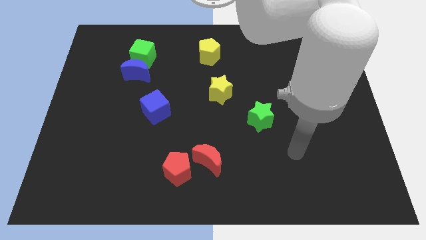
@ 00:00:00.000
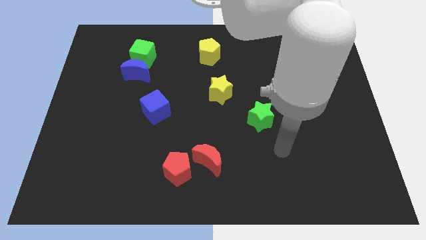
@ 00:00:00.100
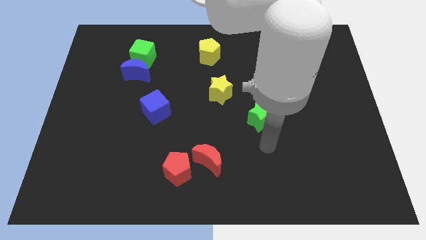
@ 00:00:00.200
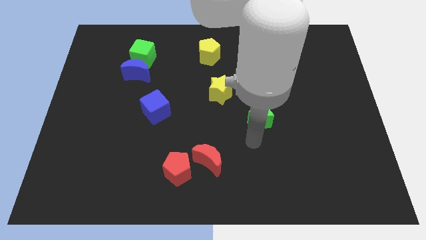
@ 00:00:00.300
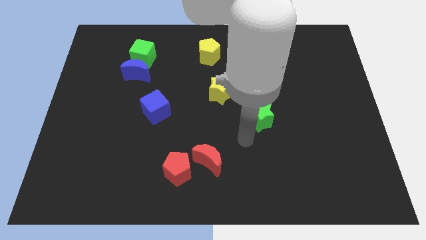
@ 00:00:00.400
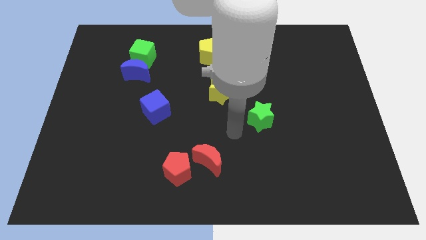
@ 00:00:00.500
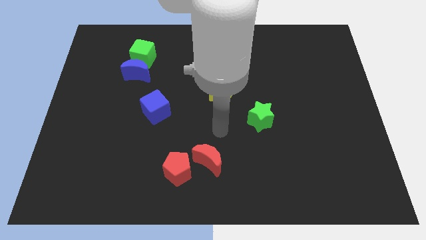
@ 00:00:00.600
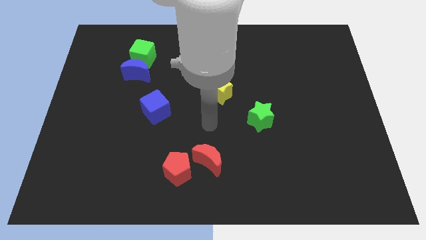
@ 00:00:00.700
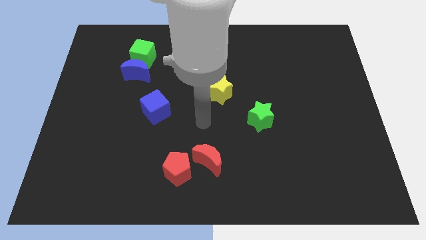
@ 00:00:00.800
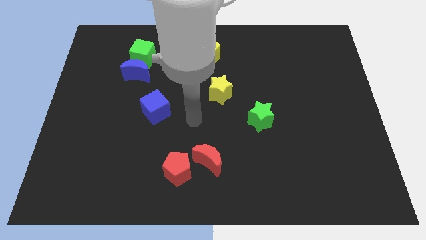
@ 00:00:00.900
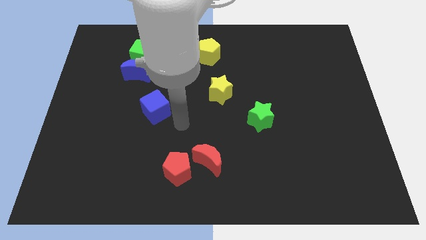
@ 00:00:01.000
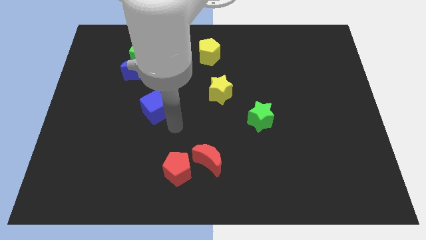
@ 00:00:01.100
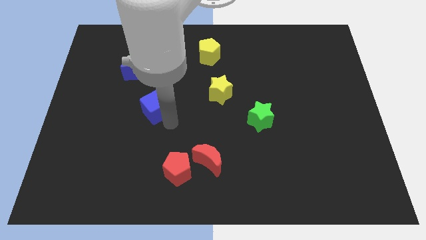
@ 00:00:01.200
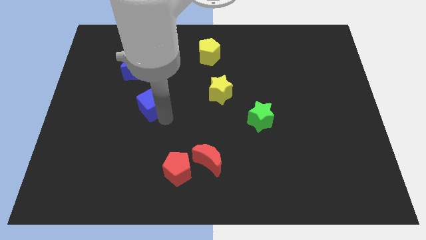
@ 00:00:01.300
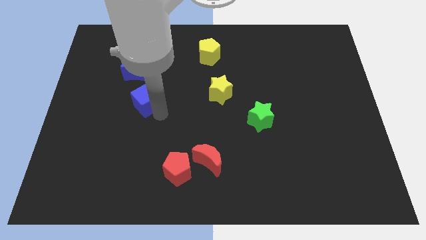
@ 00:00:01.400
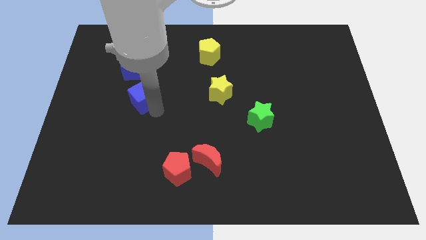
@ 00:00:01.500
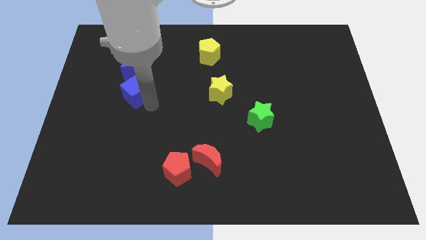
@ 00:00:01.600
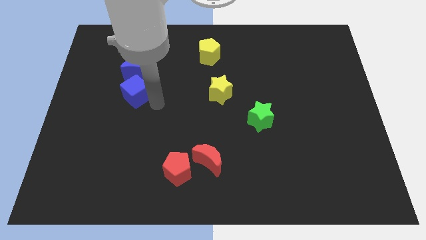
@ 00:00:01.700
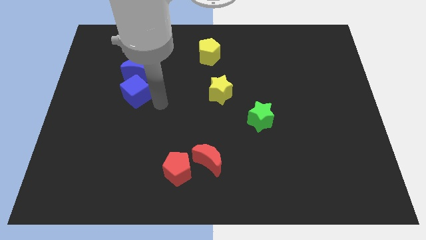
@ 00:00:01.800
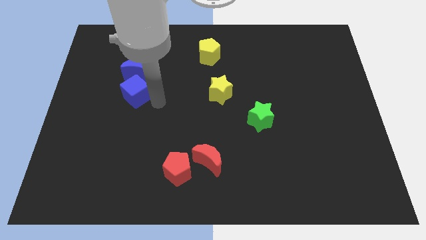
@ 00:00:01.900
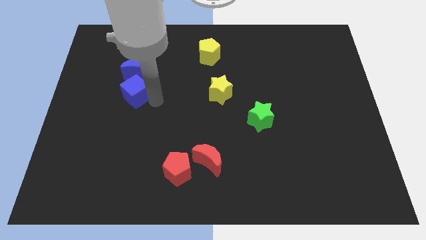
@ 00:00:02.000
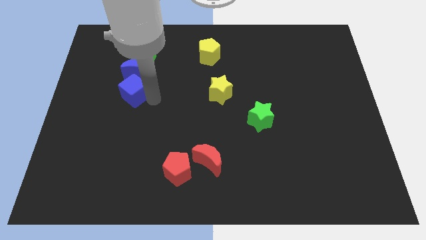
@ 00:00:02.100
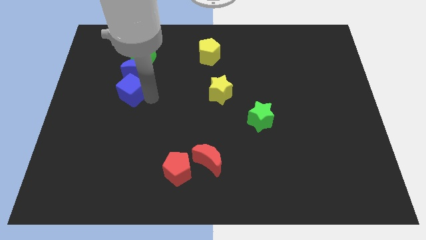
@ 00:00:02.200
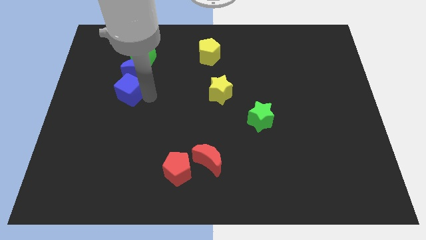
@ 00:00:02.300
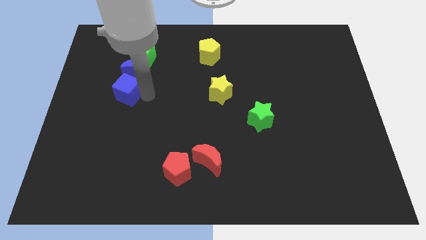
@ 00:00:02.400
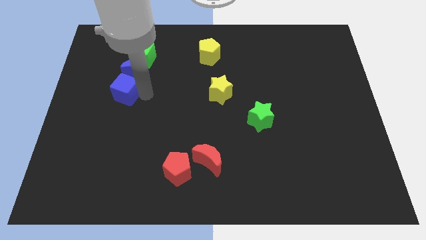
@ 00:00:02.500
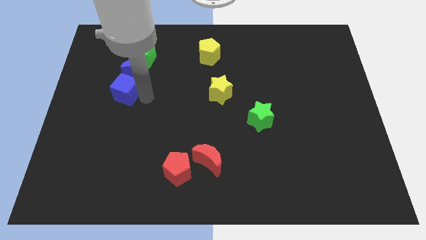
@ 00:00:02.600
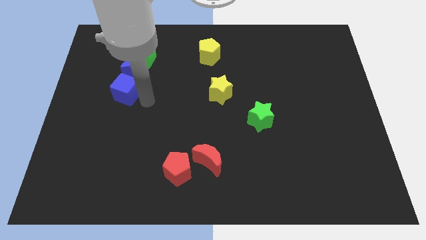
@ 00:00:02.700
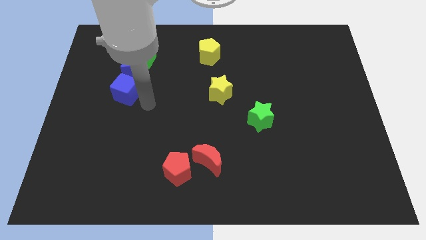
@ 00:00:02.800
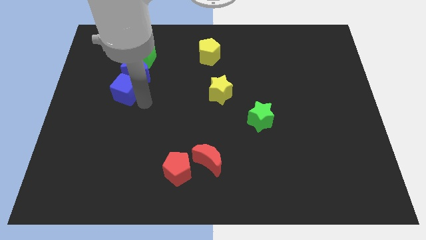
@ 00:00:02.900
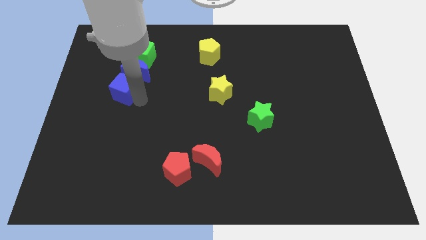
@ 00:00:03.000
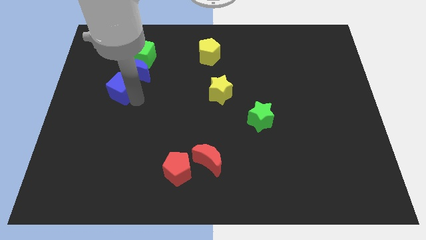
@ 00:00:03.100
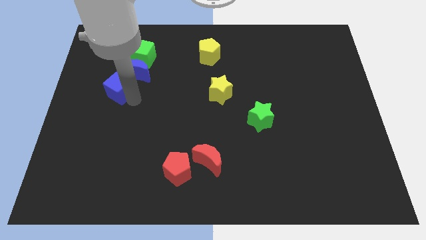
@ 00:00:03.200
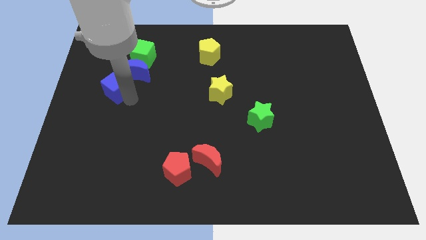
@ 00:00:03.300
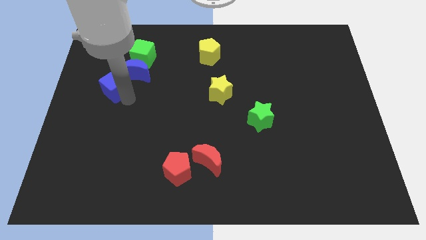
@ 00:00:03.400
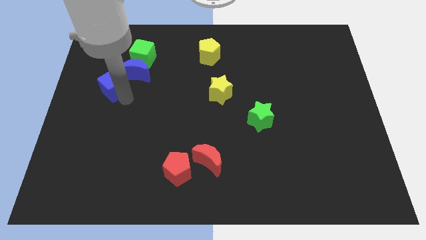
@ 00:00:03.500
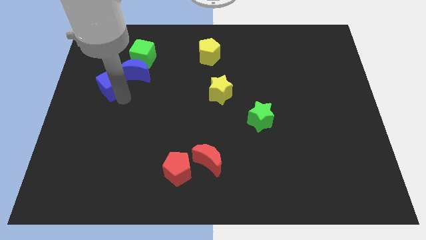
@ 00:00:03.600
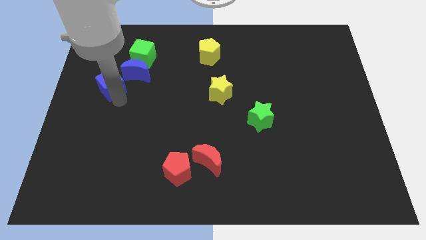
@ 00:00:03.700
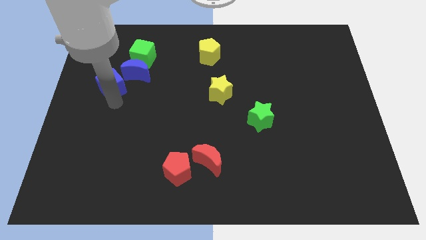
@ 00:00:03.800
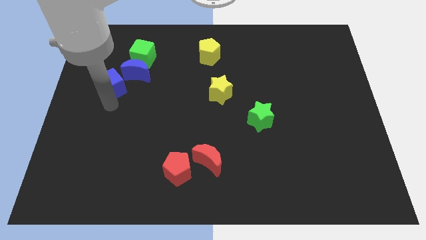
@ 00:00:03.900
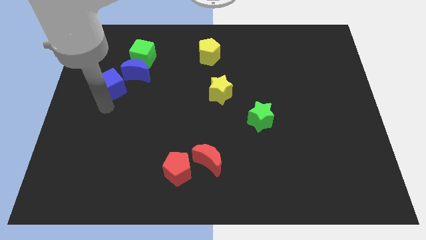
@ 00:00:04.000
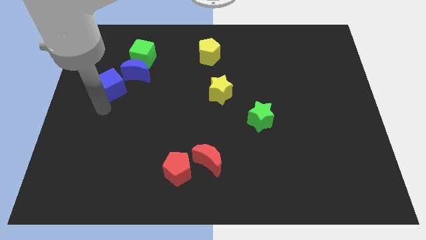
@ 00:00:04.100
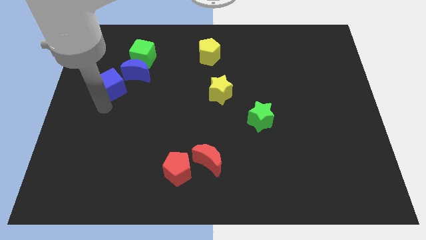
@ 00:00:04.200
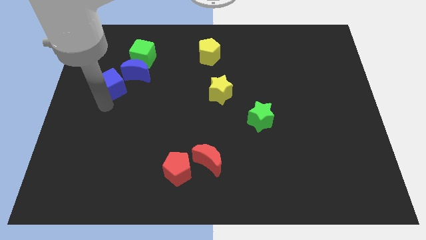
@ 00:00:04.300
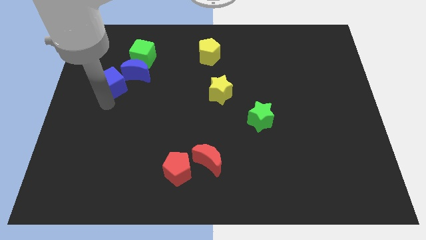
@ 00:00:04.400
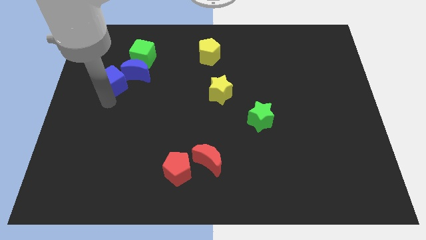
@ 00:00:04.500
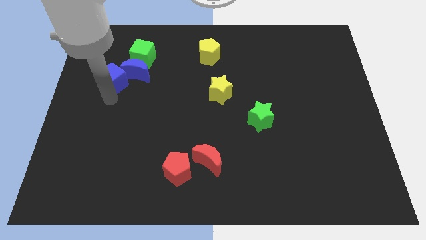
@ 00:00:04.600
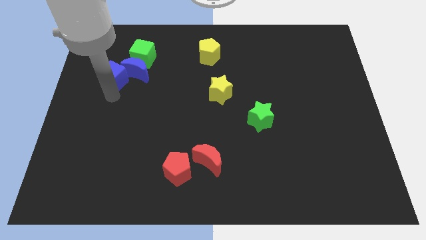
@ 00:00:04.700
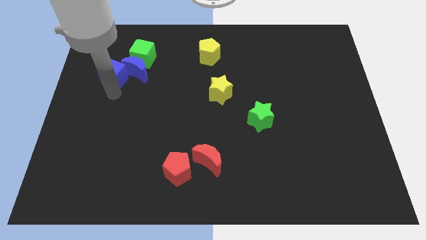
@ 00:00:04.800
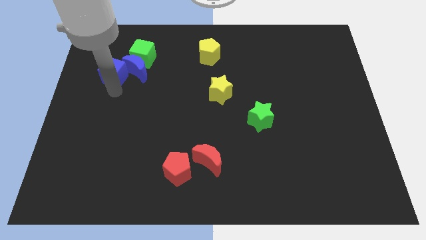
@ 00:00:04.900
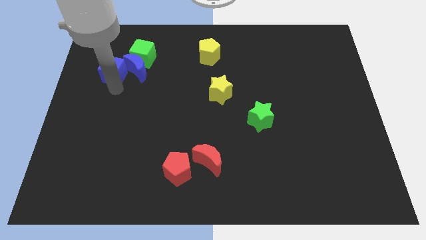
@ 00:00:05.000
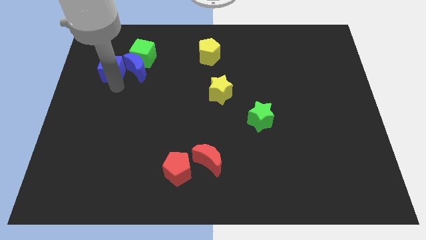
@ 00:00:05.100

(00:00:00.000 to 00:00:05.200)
move the blue cube diagonally up and to the left of the blue moon

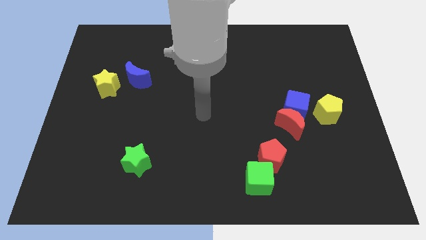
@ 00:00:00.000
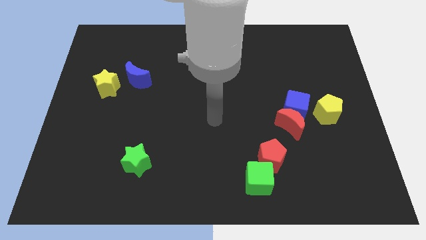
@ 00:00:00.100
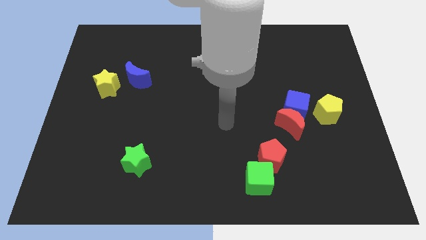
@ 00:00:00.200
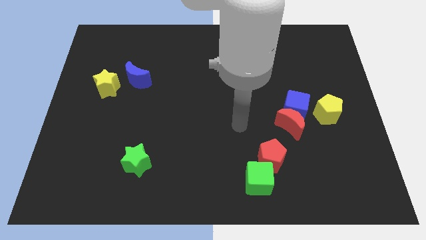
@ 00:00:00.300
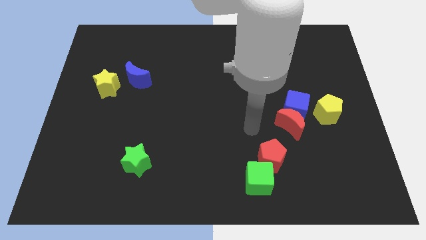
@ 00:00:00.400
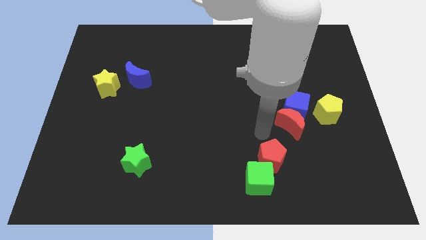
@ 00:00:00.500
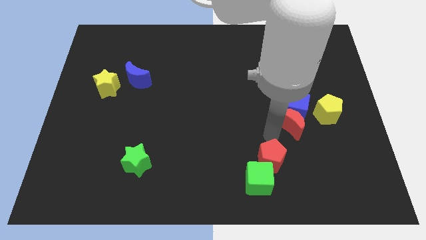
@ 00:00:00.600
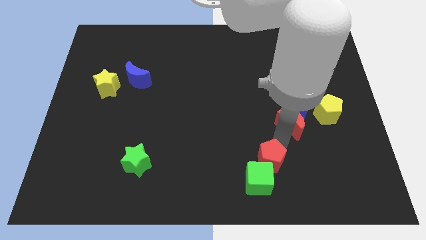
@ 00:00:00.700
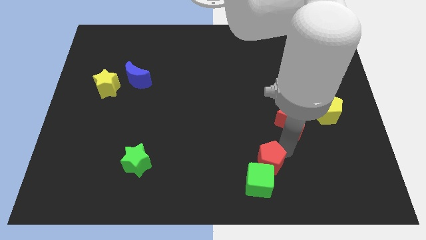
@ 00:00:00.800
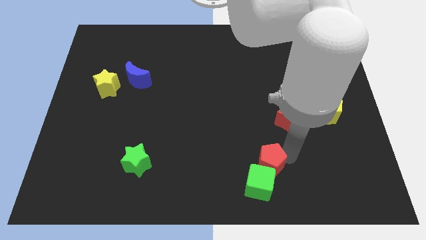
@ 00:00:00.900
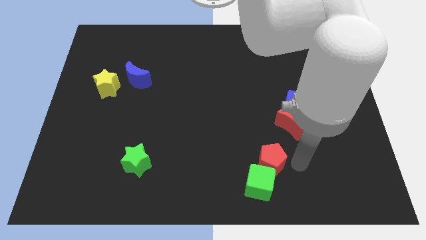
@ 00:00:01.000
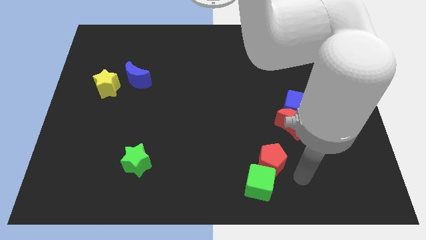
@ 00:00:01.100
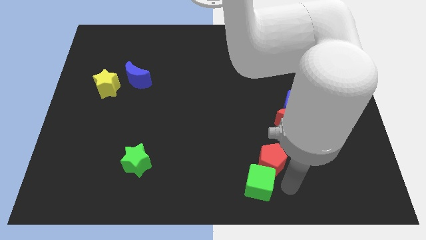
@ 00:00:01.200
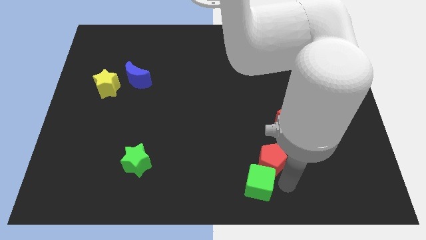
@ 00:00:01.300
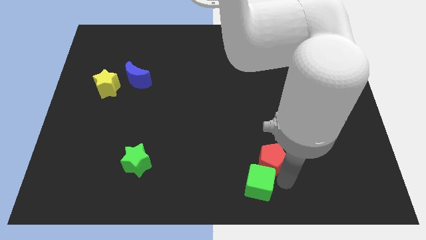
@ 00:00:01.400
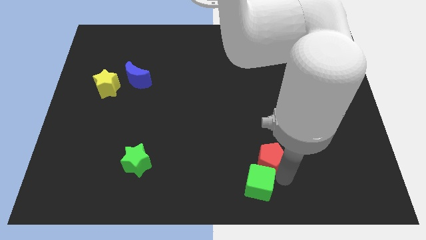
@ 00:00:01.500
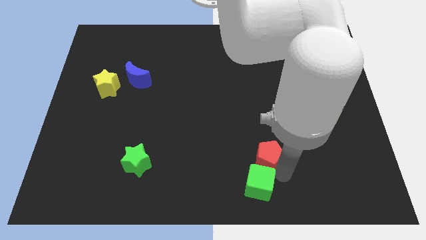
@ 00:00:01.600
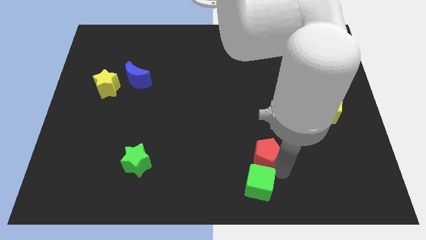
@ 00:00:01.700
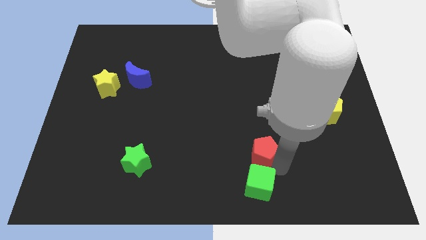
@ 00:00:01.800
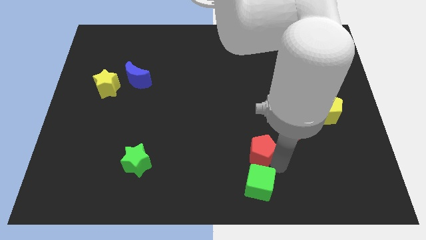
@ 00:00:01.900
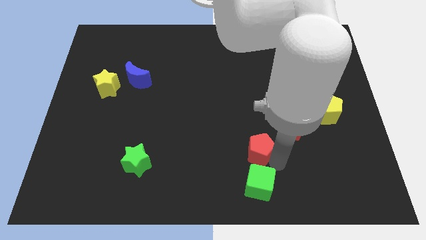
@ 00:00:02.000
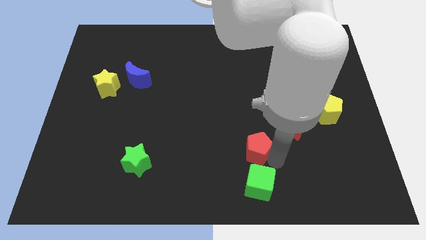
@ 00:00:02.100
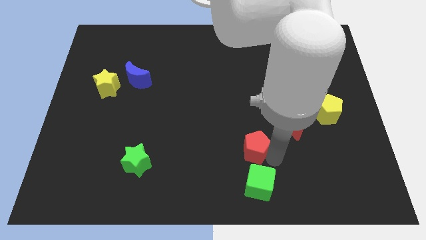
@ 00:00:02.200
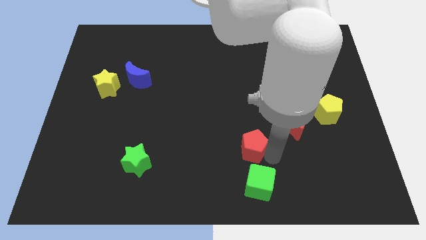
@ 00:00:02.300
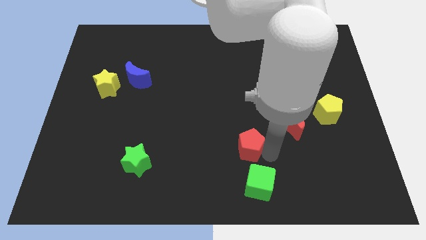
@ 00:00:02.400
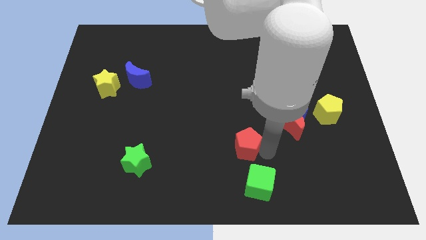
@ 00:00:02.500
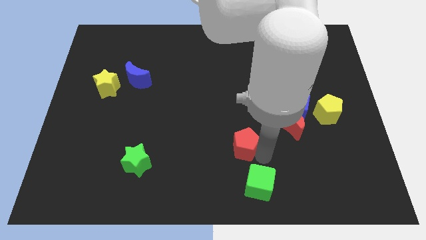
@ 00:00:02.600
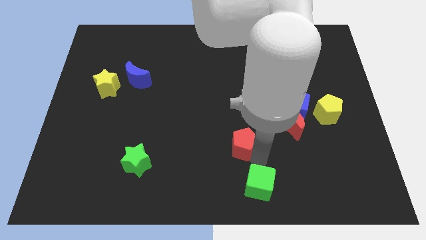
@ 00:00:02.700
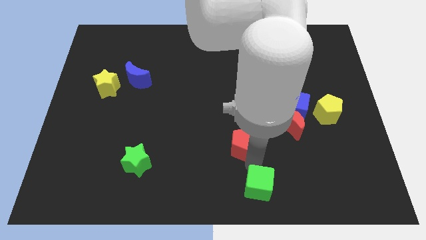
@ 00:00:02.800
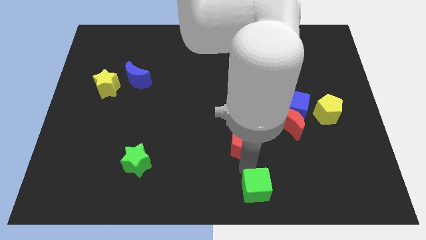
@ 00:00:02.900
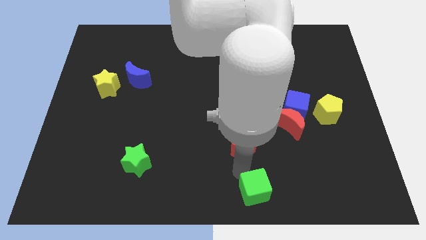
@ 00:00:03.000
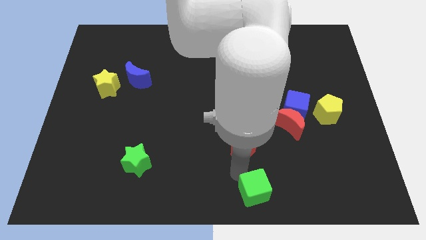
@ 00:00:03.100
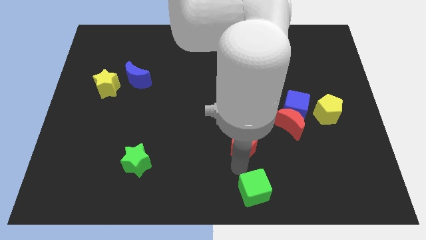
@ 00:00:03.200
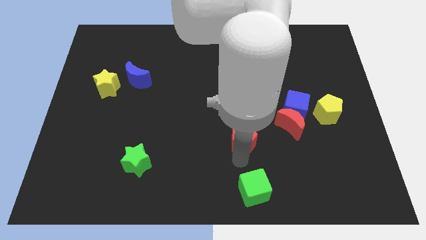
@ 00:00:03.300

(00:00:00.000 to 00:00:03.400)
slide the red pentagon left of the red moon
